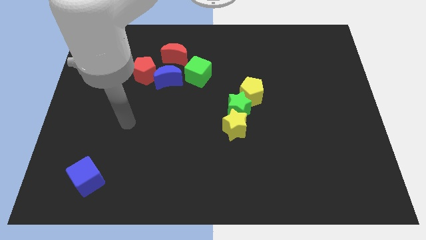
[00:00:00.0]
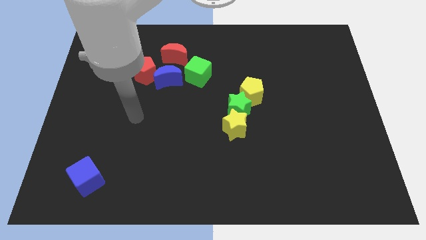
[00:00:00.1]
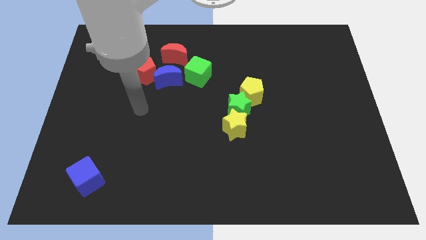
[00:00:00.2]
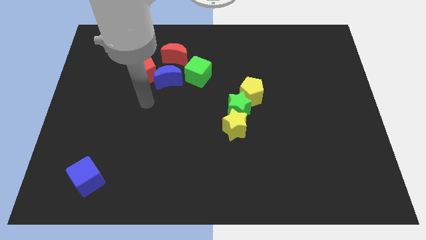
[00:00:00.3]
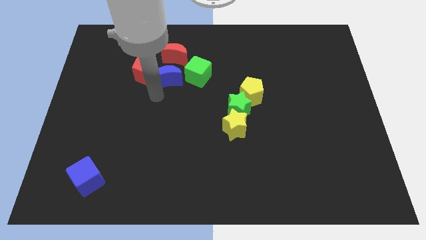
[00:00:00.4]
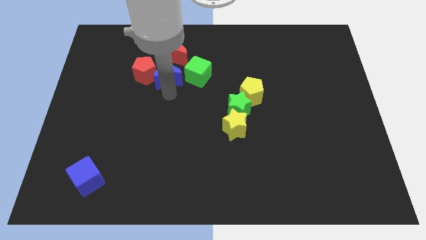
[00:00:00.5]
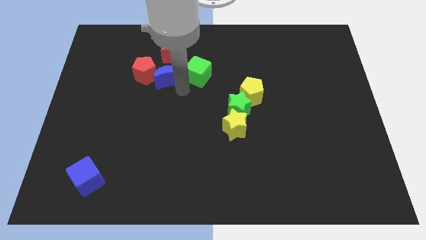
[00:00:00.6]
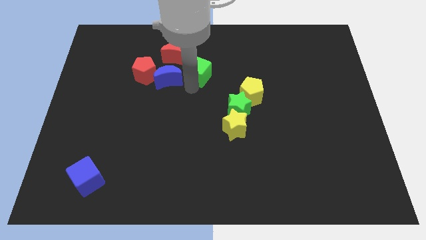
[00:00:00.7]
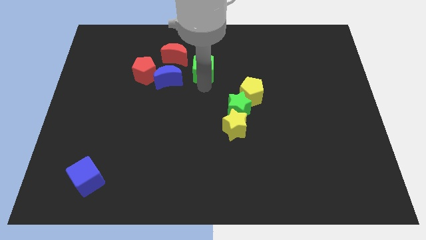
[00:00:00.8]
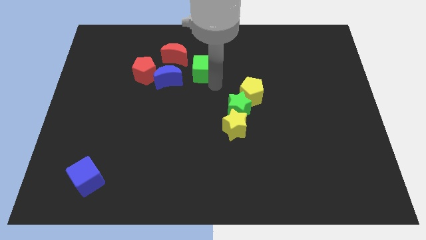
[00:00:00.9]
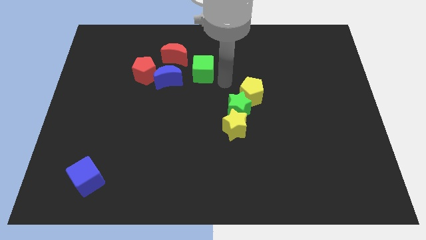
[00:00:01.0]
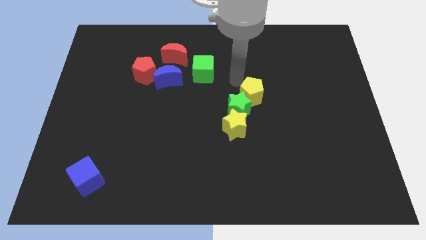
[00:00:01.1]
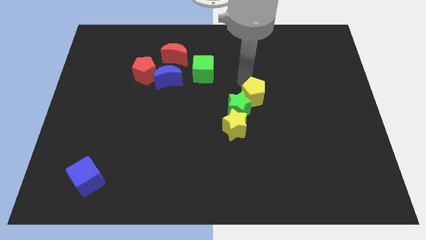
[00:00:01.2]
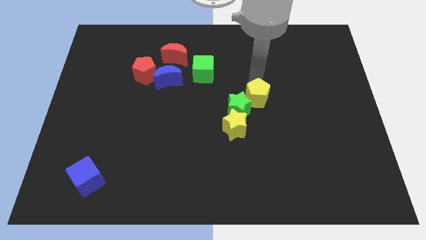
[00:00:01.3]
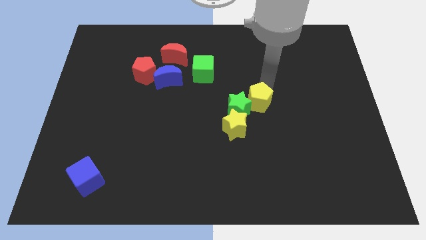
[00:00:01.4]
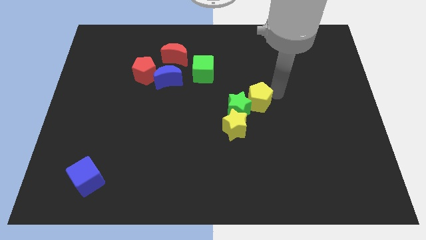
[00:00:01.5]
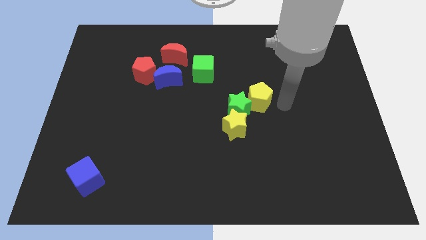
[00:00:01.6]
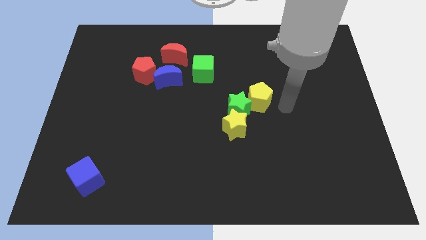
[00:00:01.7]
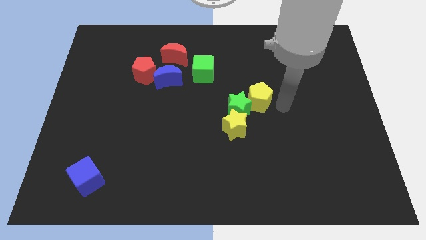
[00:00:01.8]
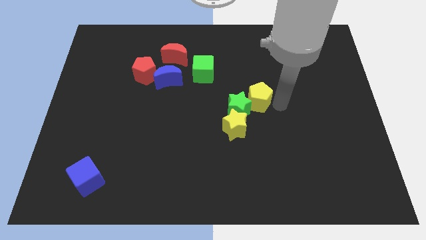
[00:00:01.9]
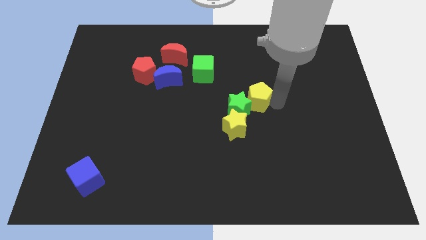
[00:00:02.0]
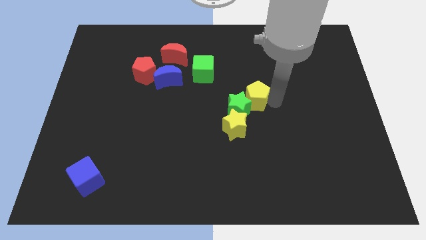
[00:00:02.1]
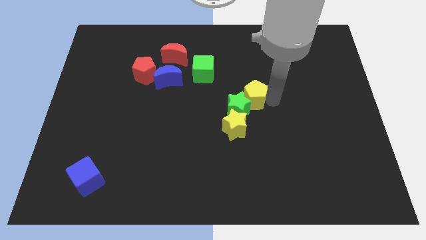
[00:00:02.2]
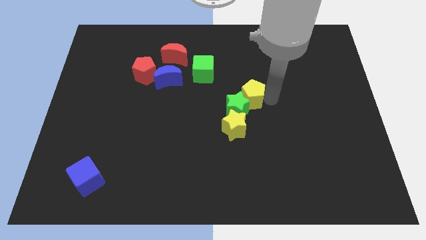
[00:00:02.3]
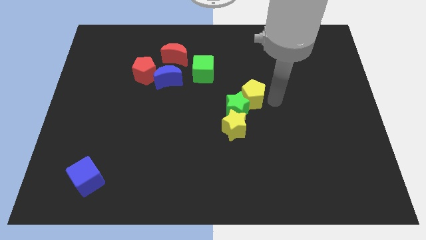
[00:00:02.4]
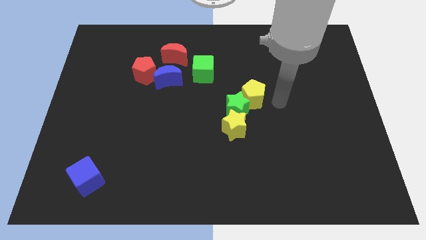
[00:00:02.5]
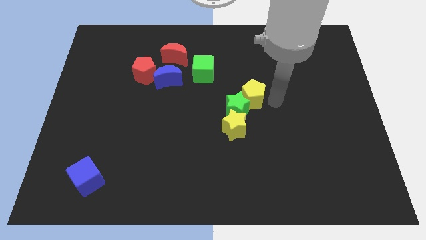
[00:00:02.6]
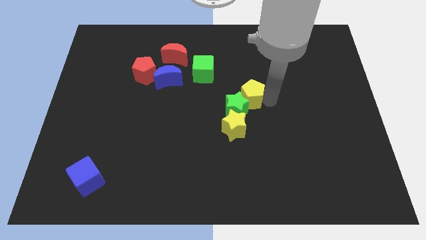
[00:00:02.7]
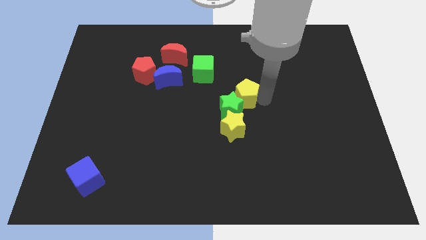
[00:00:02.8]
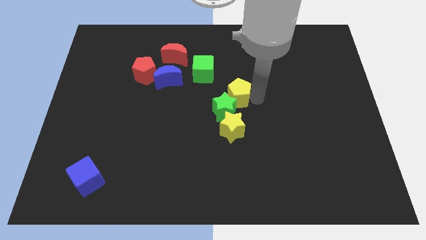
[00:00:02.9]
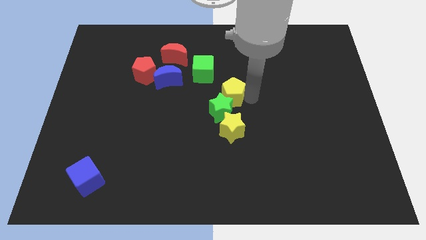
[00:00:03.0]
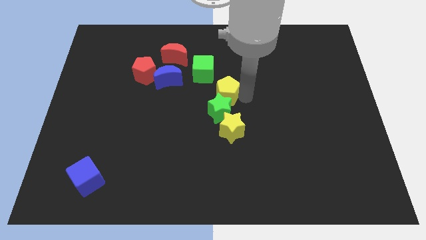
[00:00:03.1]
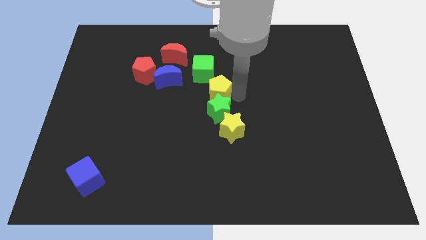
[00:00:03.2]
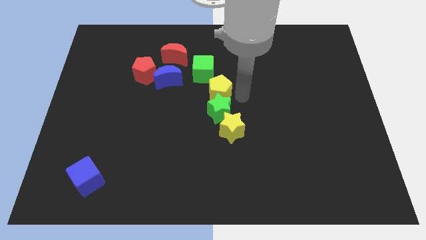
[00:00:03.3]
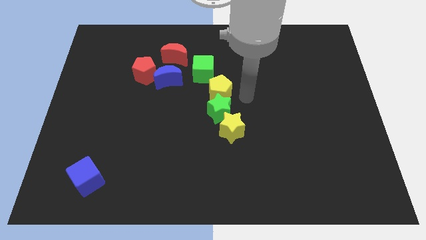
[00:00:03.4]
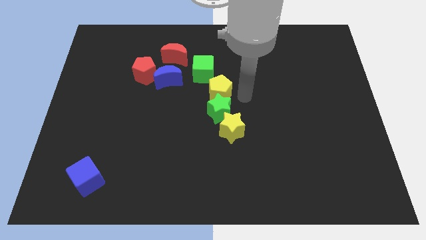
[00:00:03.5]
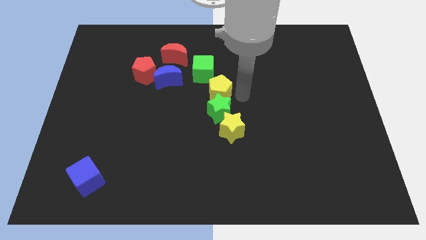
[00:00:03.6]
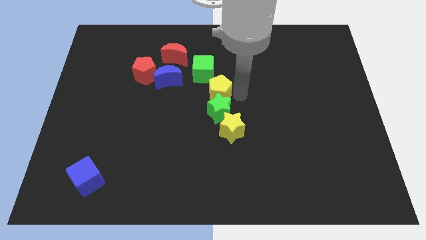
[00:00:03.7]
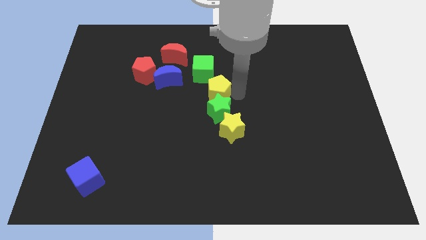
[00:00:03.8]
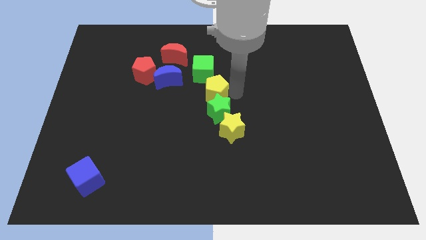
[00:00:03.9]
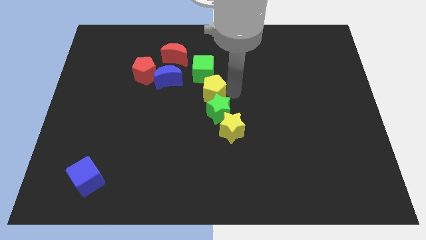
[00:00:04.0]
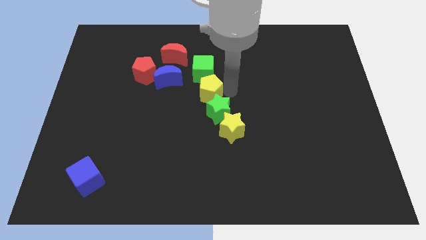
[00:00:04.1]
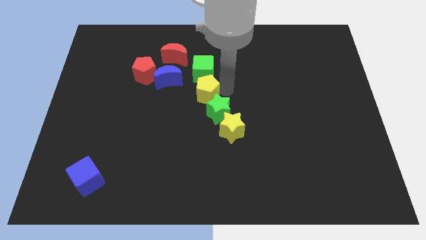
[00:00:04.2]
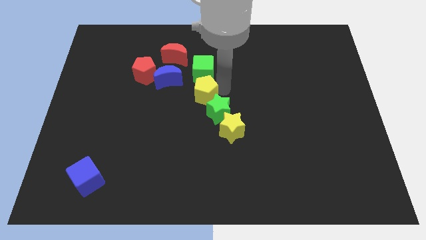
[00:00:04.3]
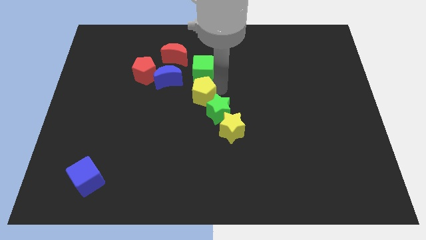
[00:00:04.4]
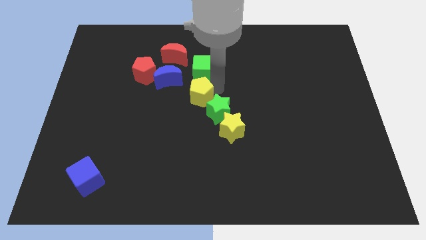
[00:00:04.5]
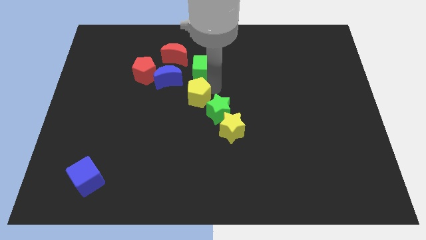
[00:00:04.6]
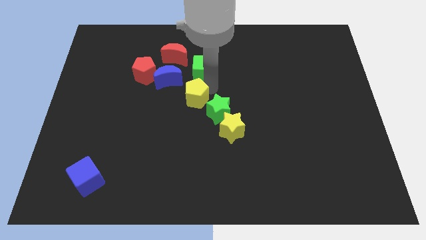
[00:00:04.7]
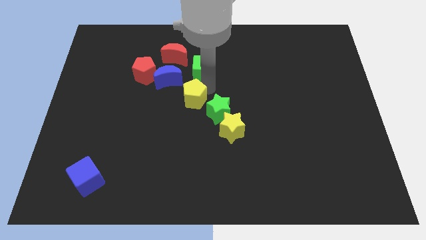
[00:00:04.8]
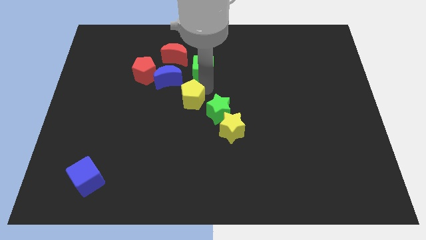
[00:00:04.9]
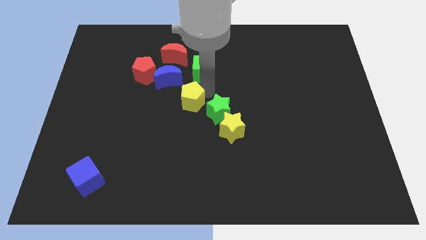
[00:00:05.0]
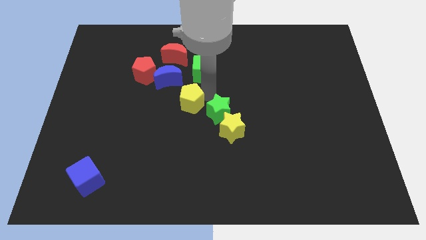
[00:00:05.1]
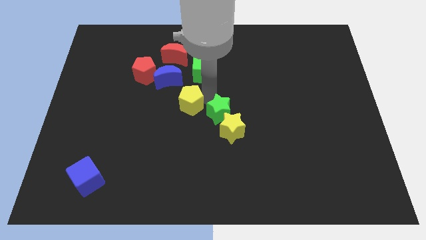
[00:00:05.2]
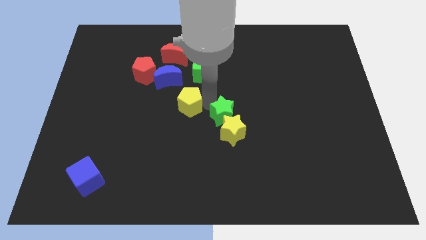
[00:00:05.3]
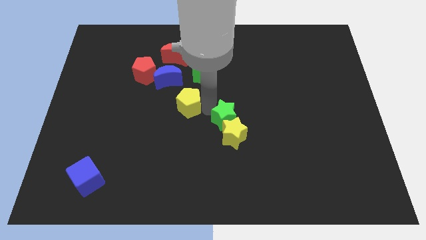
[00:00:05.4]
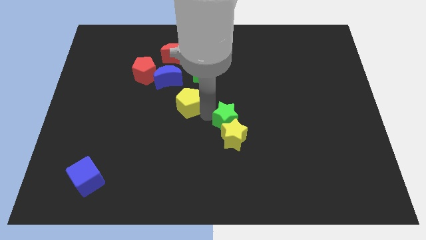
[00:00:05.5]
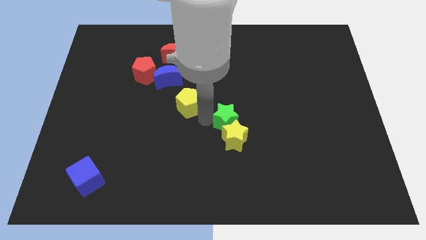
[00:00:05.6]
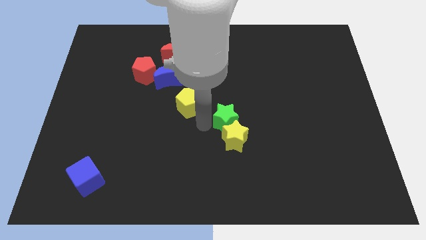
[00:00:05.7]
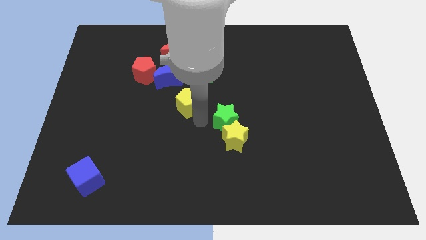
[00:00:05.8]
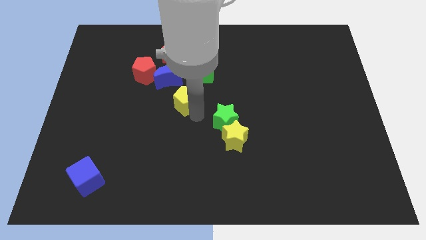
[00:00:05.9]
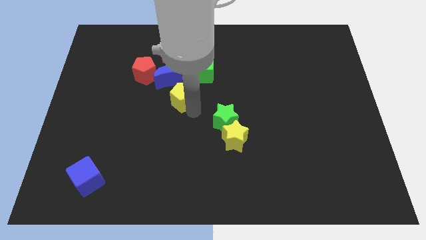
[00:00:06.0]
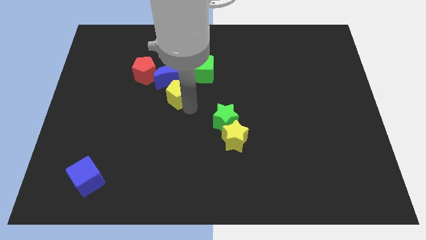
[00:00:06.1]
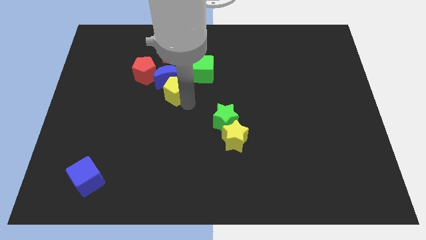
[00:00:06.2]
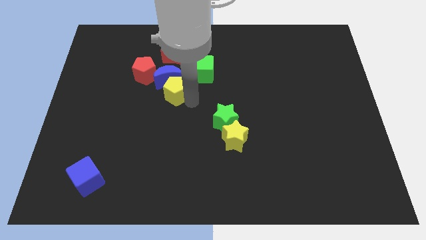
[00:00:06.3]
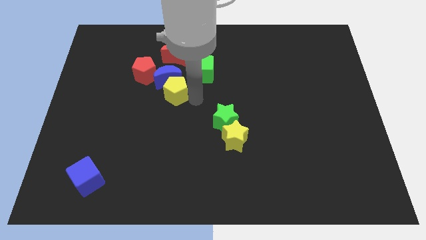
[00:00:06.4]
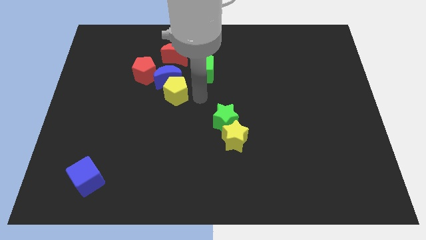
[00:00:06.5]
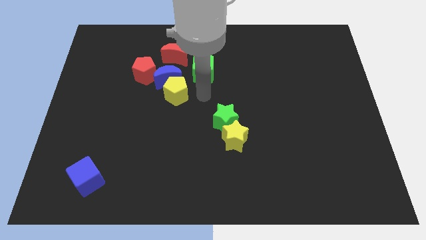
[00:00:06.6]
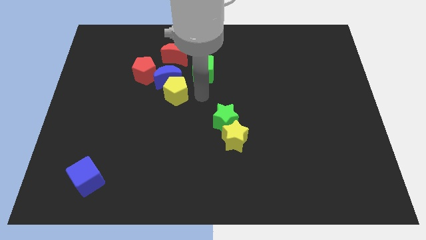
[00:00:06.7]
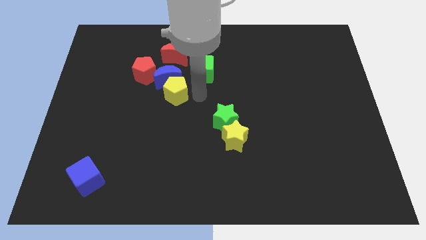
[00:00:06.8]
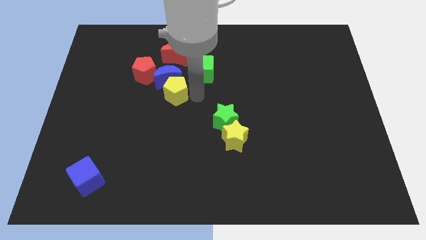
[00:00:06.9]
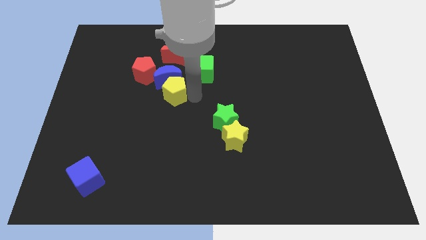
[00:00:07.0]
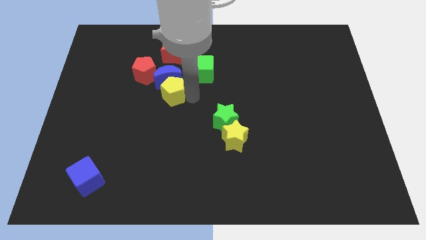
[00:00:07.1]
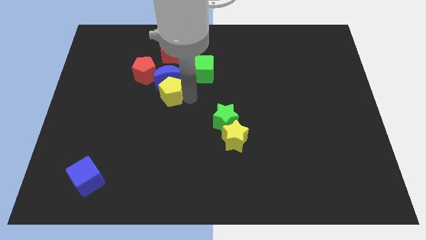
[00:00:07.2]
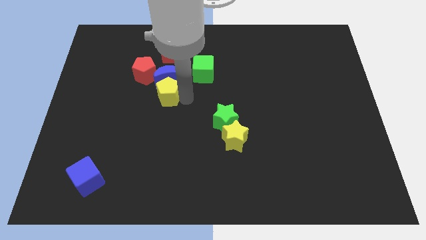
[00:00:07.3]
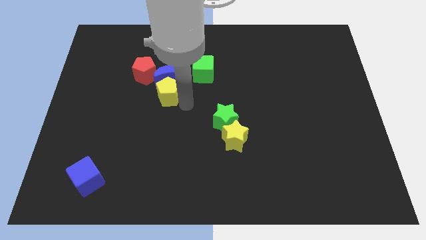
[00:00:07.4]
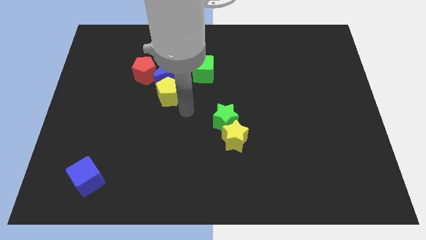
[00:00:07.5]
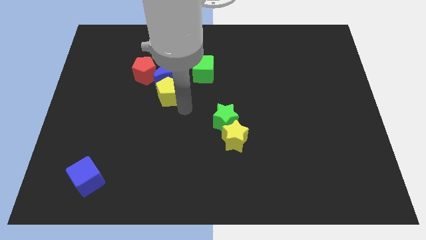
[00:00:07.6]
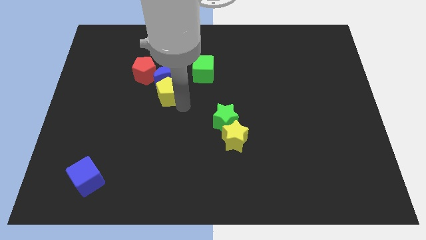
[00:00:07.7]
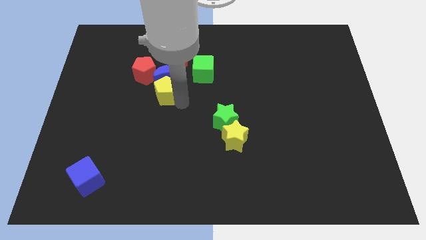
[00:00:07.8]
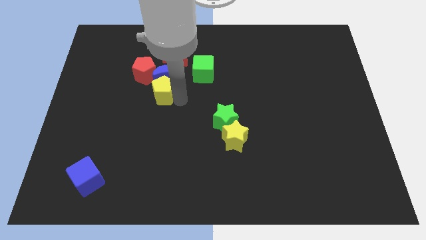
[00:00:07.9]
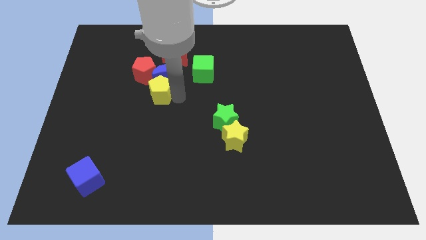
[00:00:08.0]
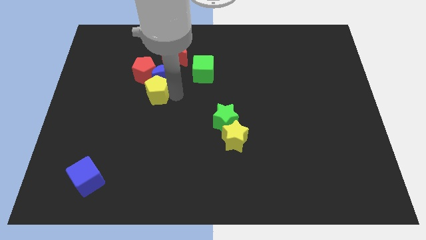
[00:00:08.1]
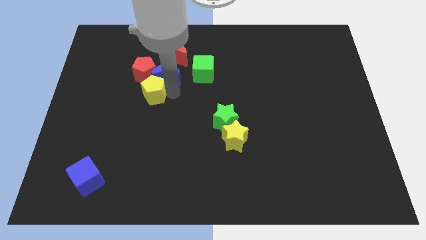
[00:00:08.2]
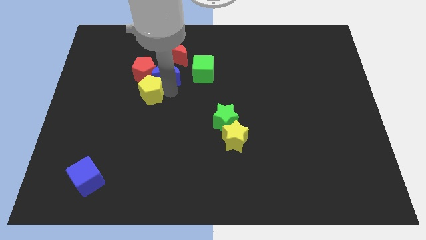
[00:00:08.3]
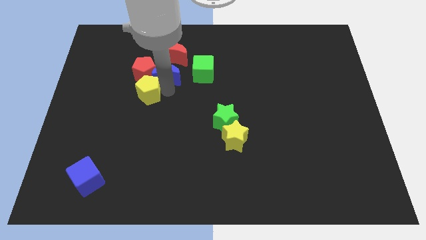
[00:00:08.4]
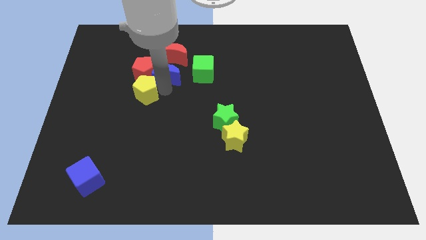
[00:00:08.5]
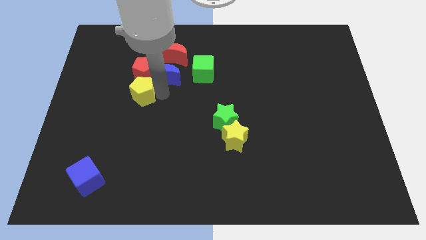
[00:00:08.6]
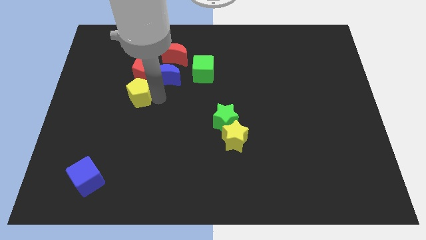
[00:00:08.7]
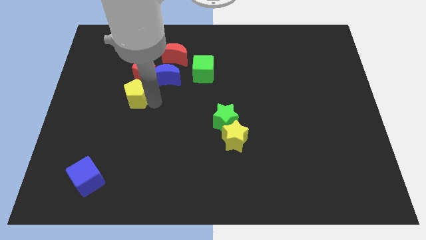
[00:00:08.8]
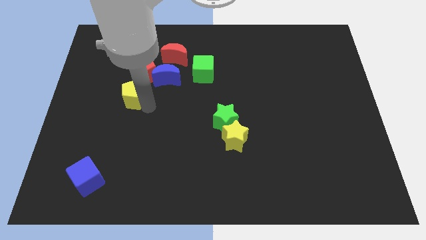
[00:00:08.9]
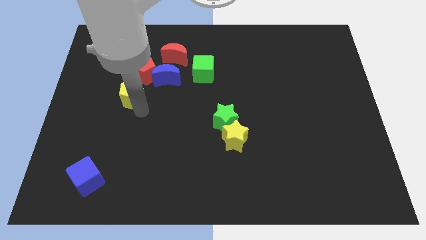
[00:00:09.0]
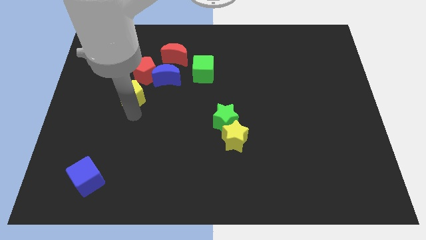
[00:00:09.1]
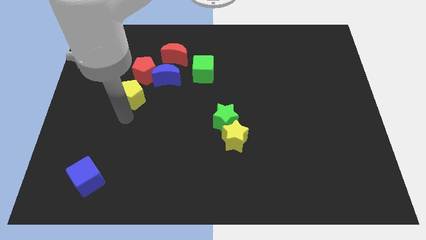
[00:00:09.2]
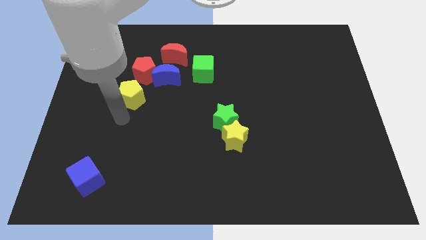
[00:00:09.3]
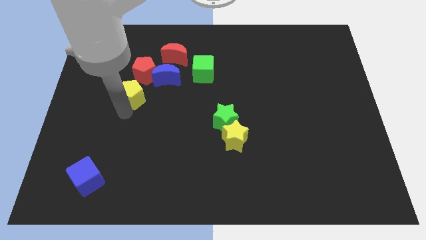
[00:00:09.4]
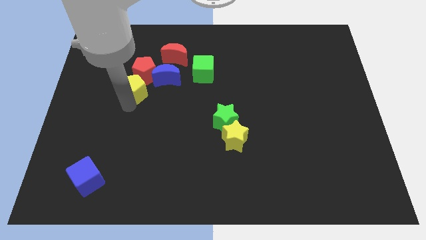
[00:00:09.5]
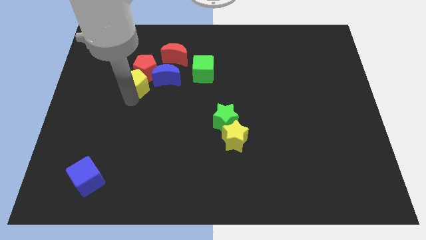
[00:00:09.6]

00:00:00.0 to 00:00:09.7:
move the yellow pentagon to the red pentagon
